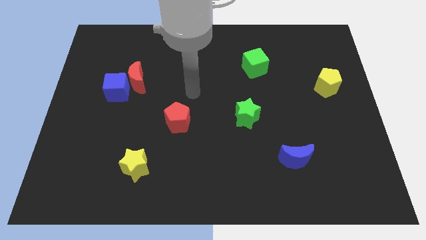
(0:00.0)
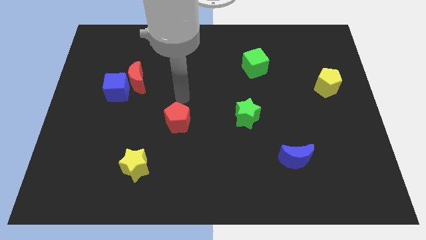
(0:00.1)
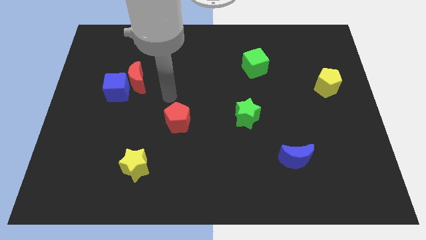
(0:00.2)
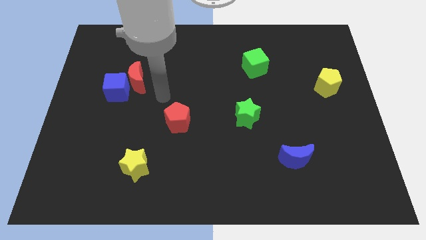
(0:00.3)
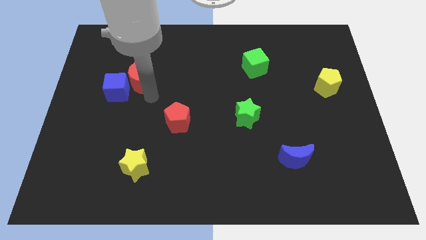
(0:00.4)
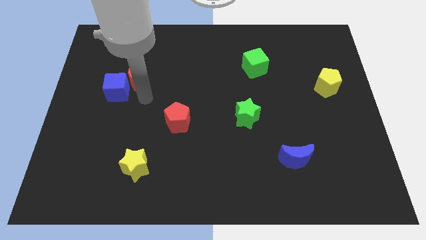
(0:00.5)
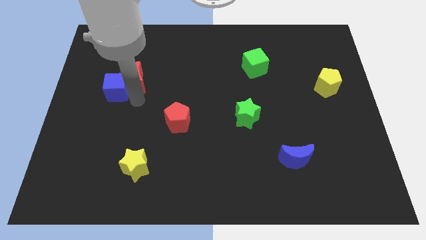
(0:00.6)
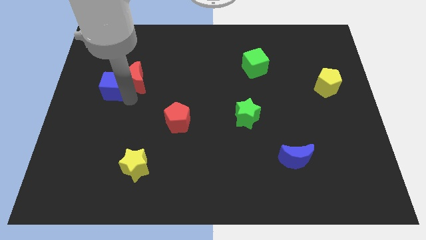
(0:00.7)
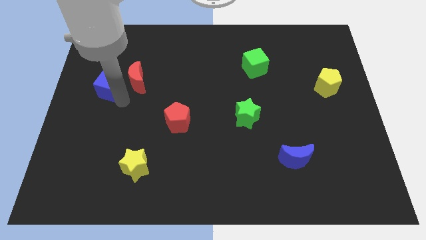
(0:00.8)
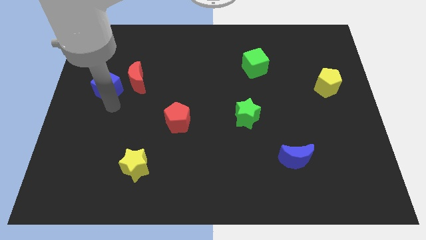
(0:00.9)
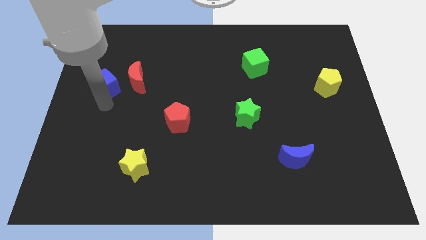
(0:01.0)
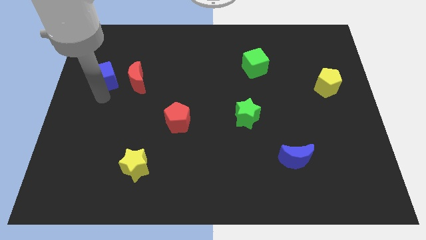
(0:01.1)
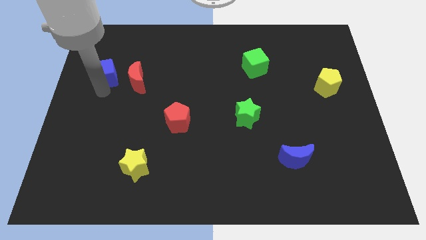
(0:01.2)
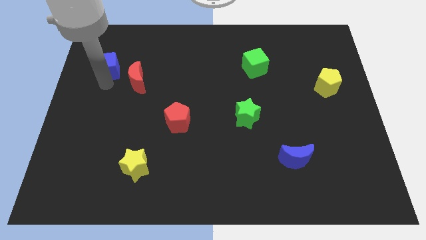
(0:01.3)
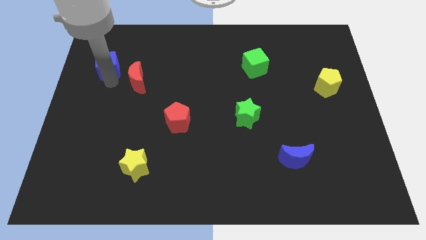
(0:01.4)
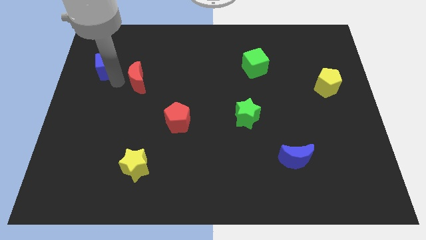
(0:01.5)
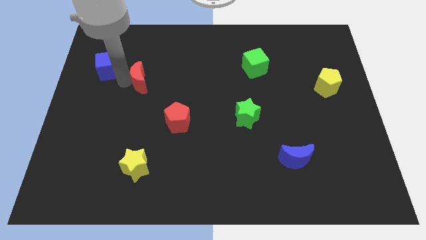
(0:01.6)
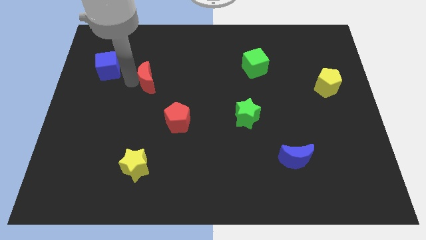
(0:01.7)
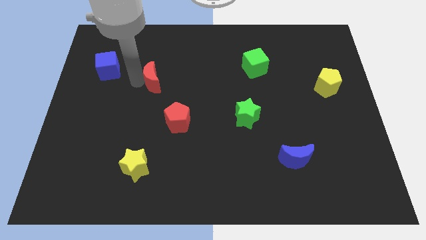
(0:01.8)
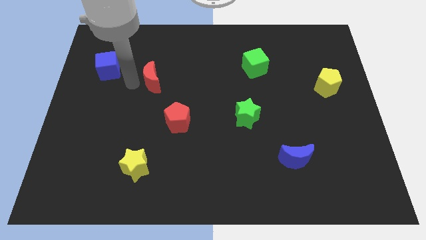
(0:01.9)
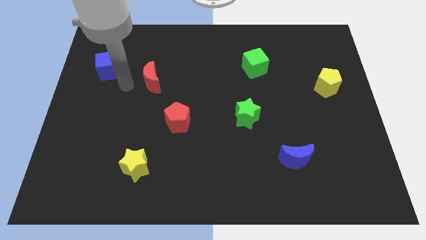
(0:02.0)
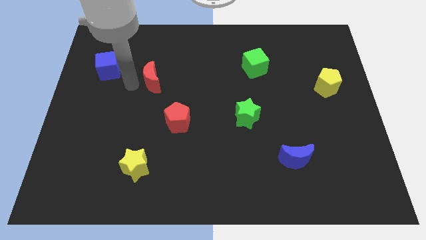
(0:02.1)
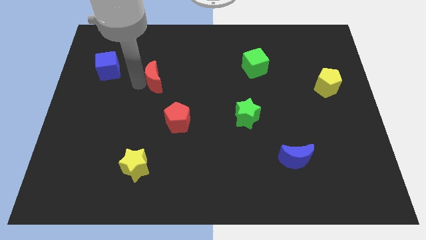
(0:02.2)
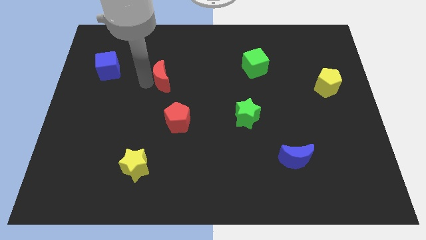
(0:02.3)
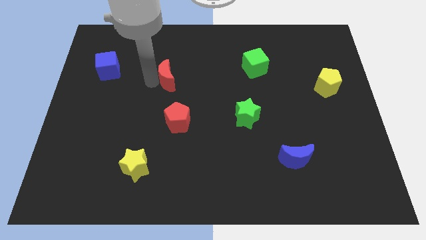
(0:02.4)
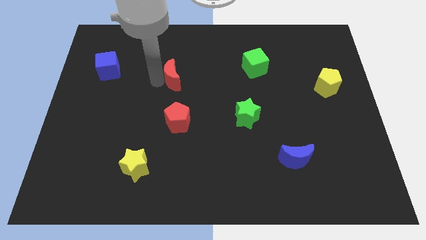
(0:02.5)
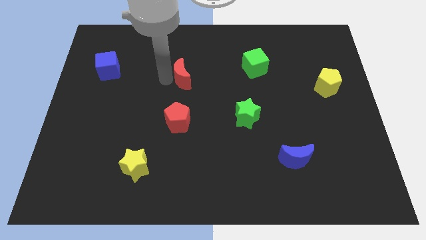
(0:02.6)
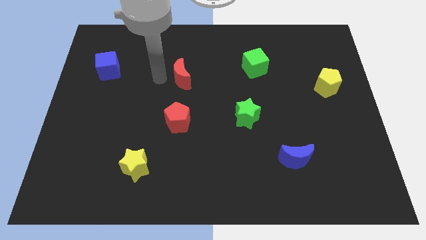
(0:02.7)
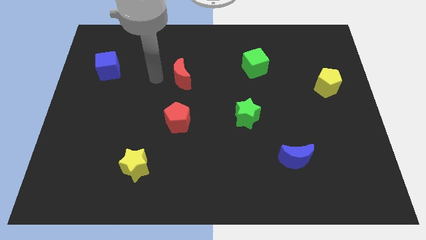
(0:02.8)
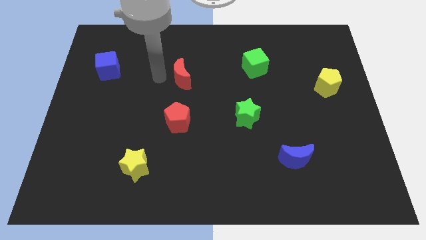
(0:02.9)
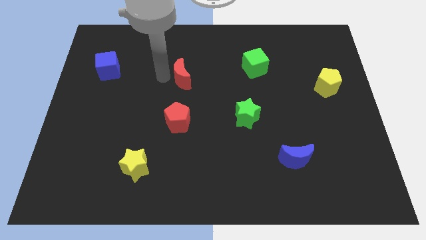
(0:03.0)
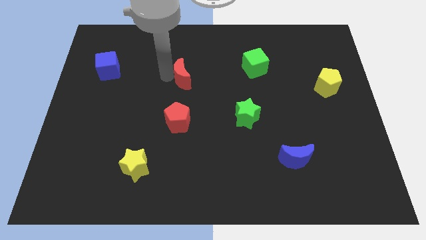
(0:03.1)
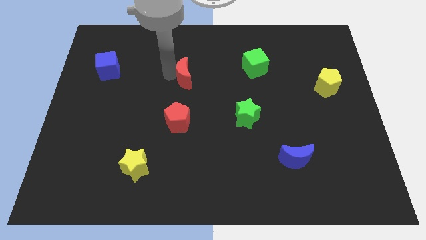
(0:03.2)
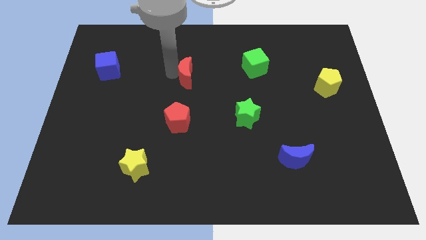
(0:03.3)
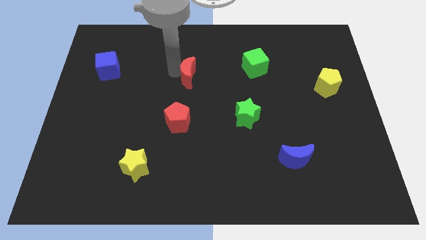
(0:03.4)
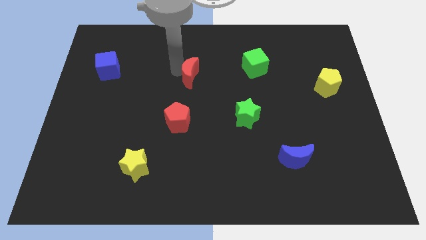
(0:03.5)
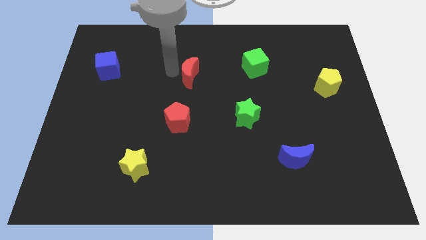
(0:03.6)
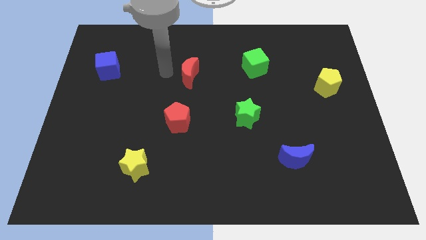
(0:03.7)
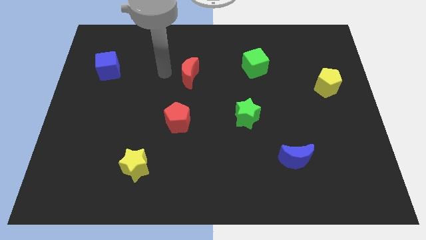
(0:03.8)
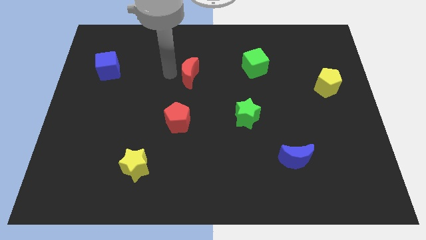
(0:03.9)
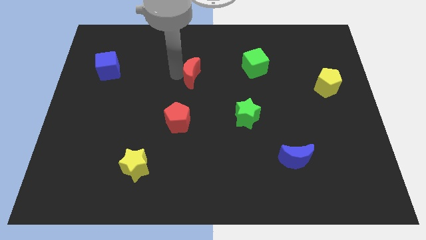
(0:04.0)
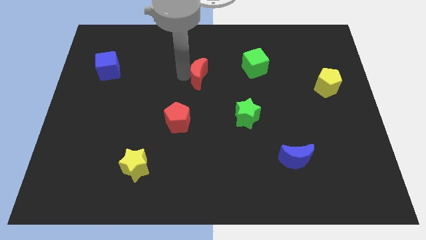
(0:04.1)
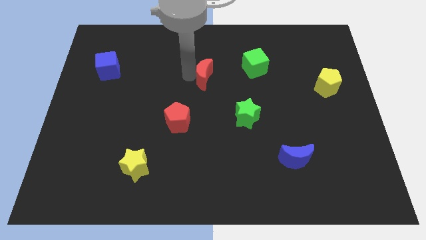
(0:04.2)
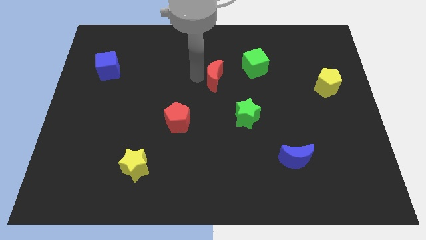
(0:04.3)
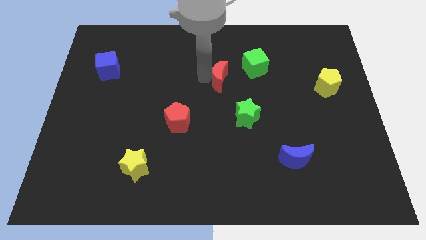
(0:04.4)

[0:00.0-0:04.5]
slide the red moon right

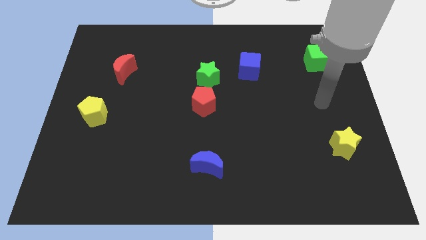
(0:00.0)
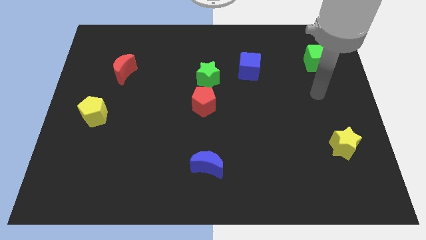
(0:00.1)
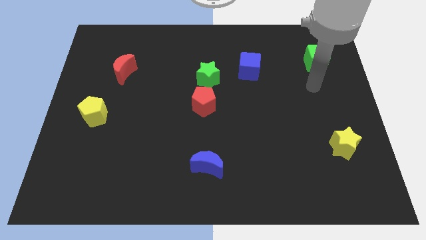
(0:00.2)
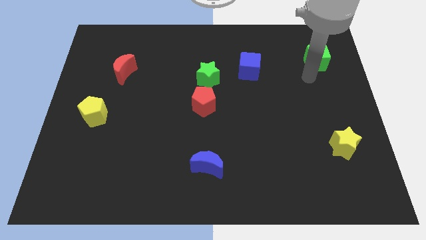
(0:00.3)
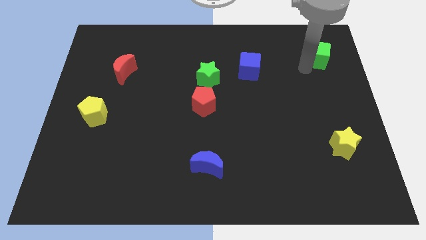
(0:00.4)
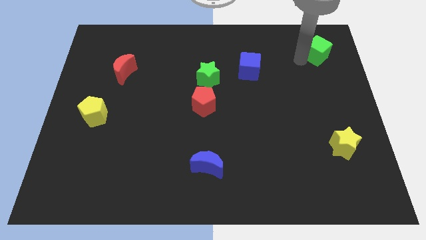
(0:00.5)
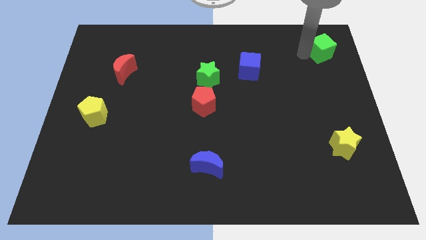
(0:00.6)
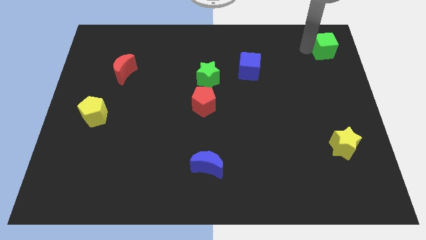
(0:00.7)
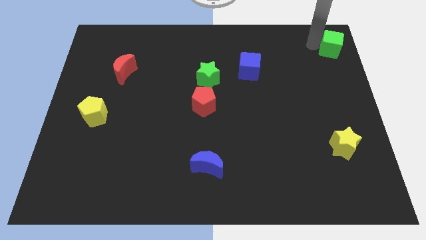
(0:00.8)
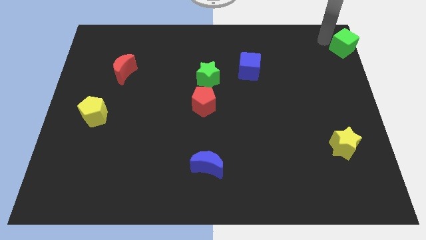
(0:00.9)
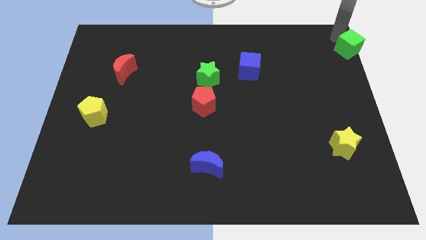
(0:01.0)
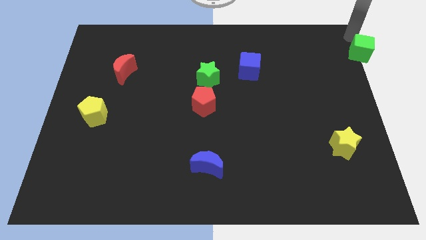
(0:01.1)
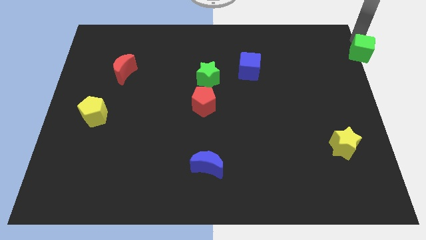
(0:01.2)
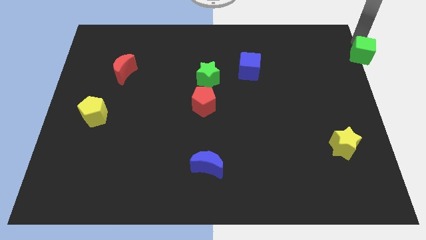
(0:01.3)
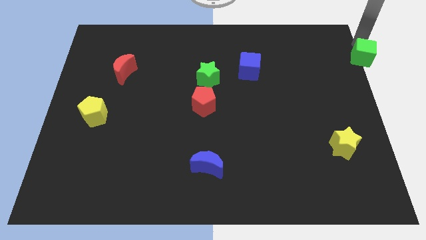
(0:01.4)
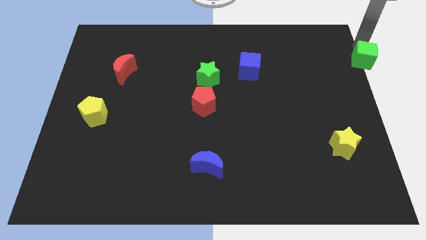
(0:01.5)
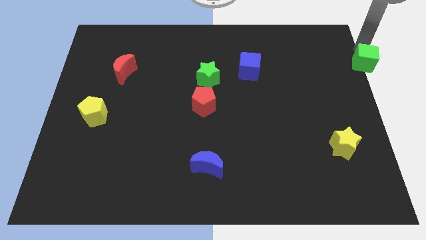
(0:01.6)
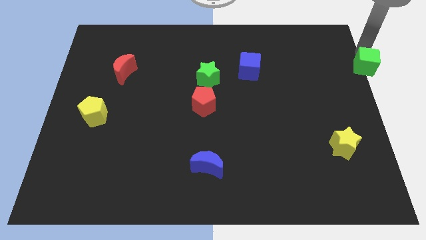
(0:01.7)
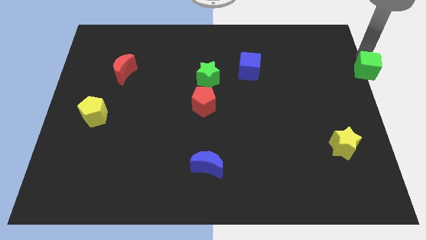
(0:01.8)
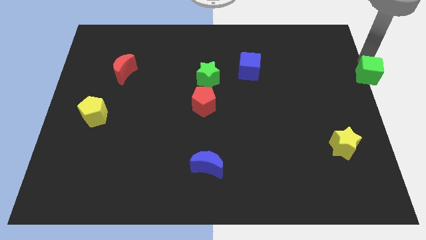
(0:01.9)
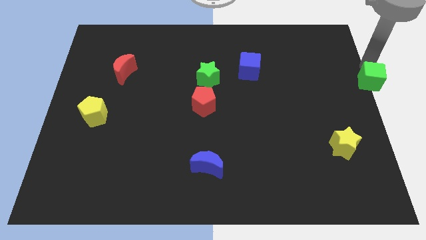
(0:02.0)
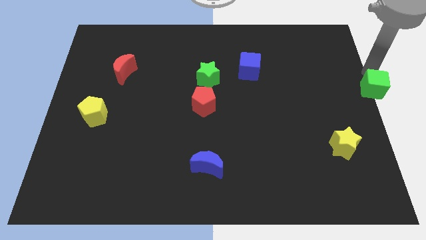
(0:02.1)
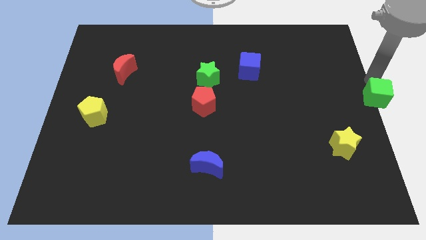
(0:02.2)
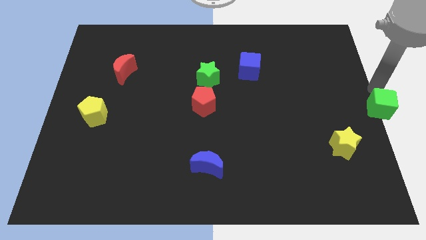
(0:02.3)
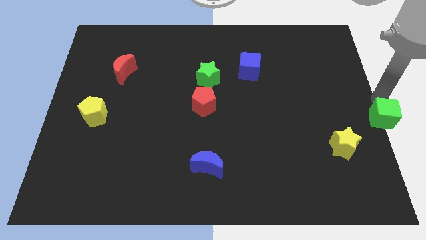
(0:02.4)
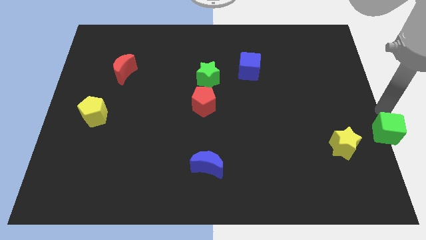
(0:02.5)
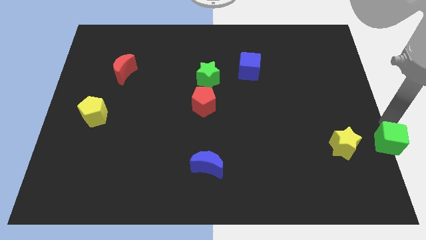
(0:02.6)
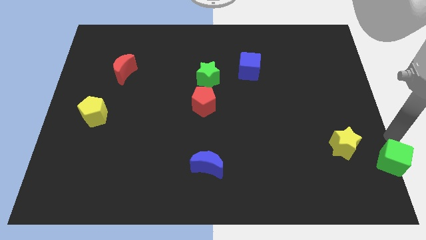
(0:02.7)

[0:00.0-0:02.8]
slide the green cube downwards

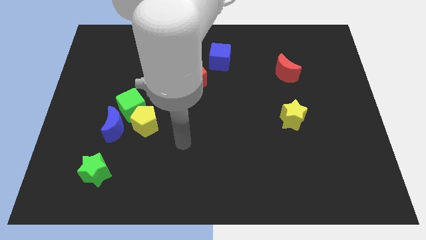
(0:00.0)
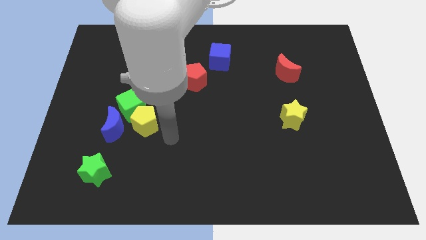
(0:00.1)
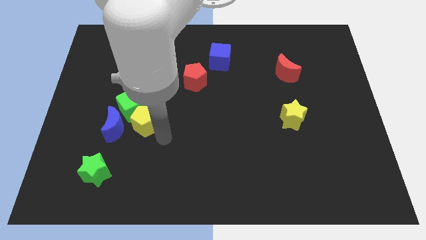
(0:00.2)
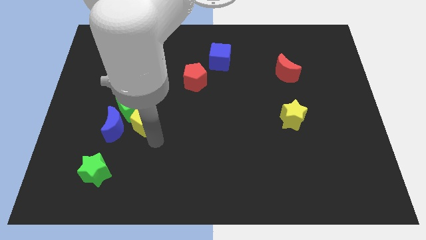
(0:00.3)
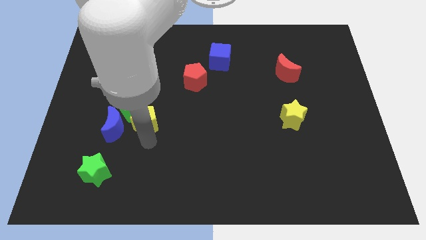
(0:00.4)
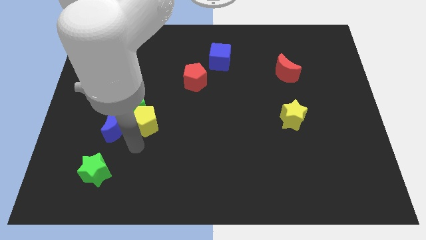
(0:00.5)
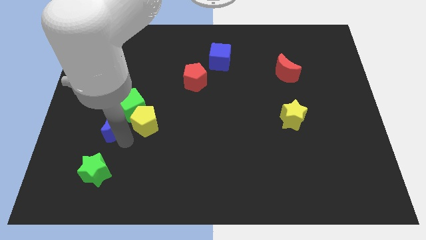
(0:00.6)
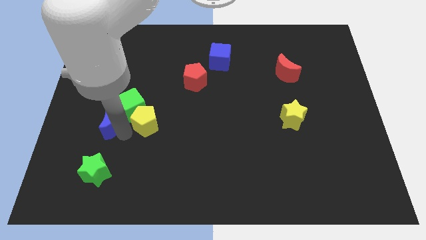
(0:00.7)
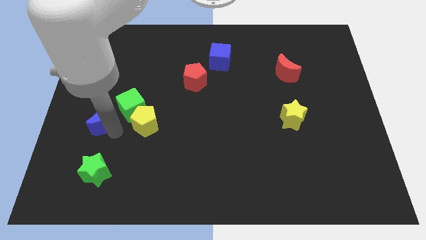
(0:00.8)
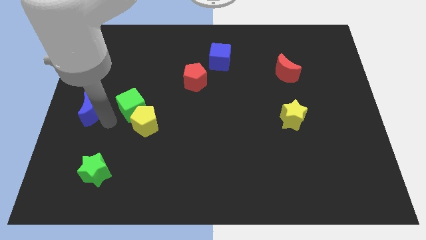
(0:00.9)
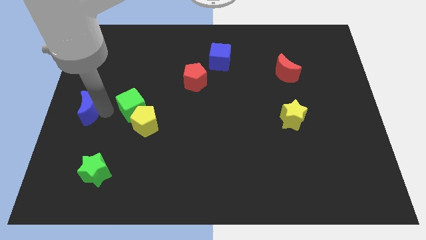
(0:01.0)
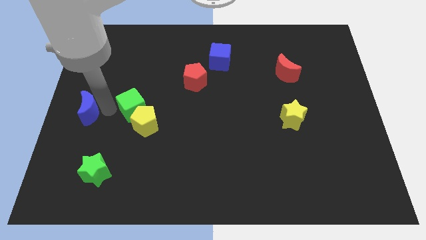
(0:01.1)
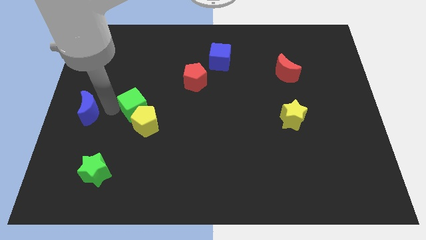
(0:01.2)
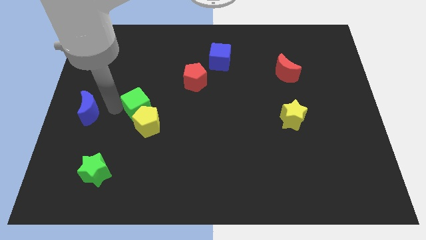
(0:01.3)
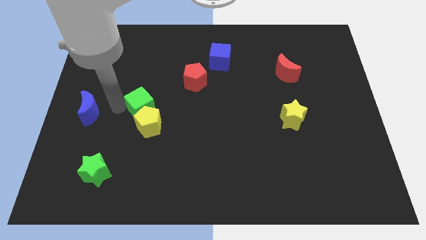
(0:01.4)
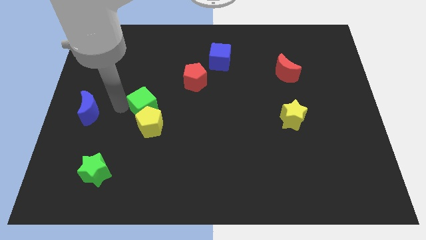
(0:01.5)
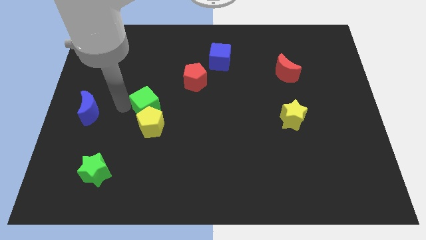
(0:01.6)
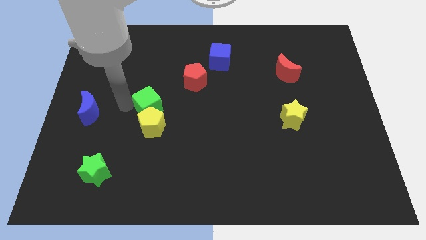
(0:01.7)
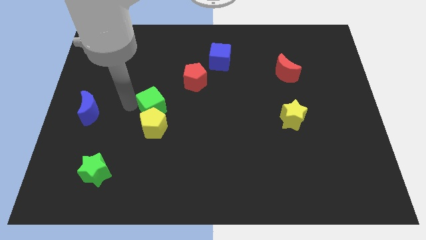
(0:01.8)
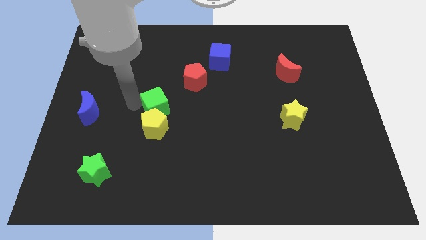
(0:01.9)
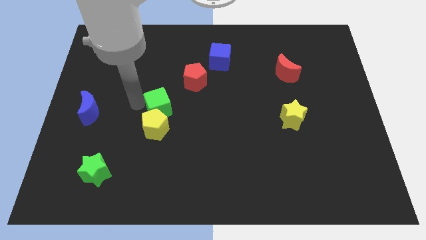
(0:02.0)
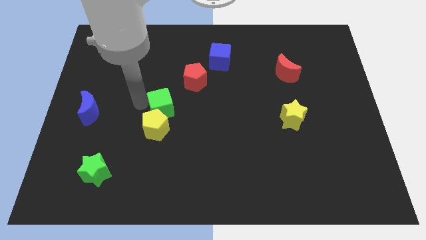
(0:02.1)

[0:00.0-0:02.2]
push the green cube a little to the right
